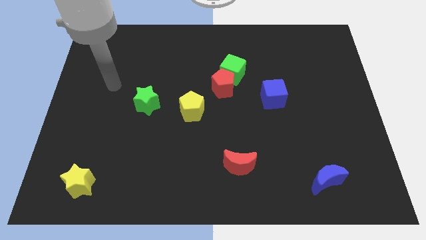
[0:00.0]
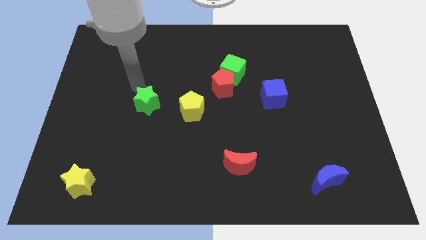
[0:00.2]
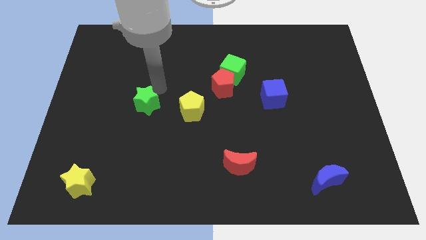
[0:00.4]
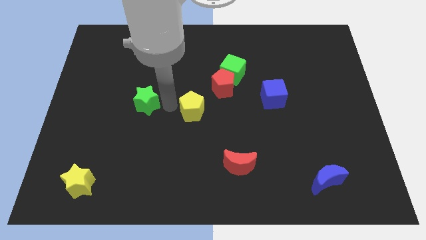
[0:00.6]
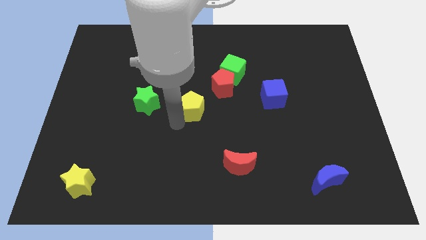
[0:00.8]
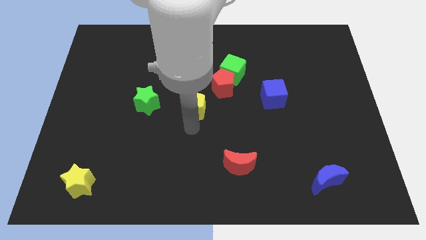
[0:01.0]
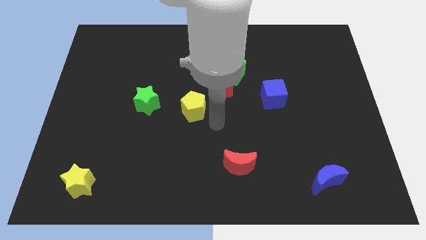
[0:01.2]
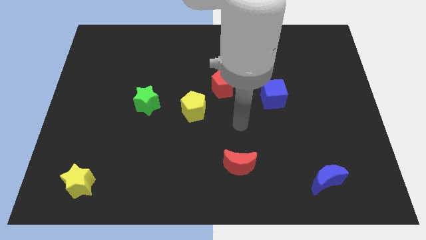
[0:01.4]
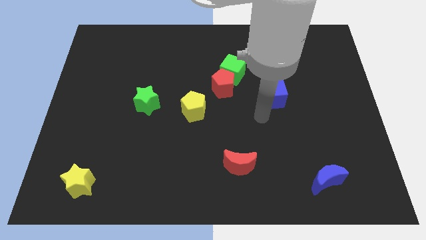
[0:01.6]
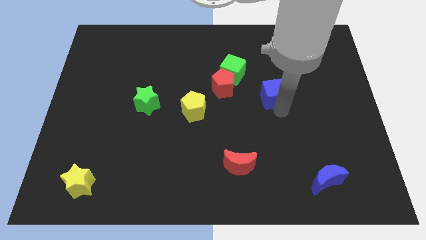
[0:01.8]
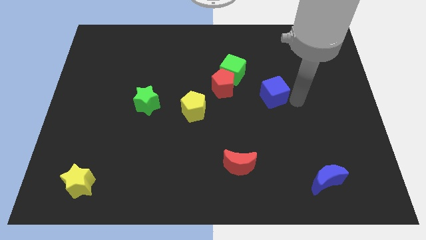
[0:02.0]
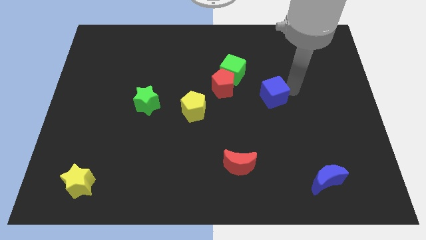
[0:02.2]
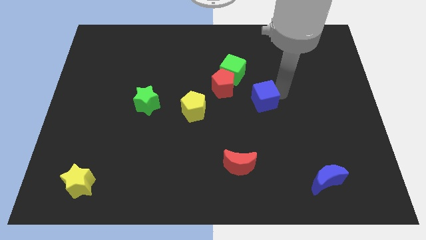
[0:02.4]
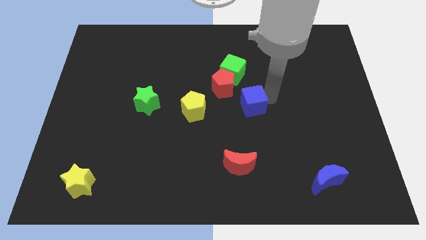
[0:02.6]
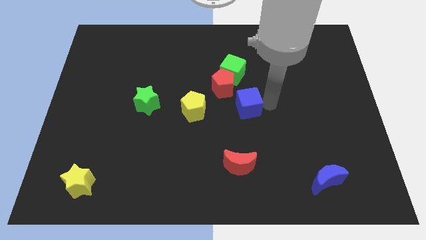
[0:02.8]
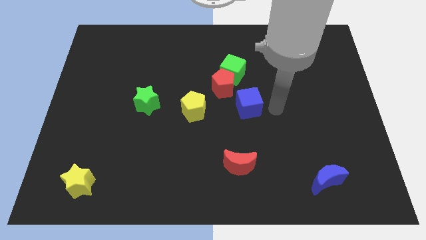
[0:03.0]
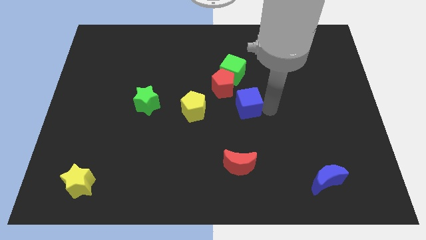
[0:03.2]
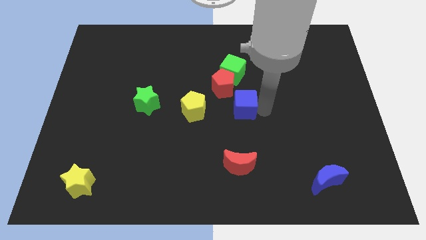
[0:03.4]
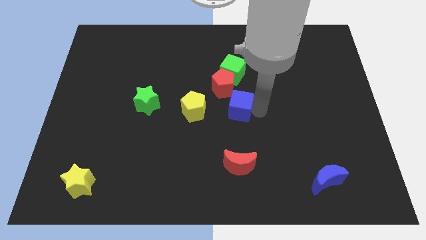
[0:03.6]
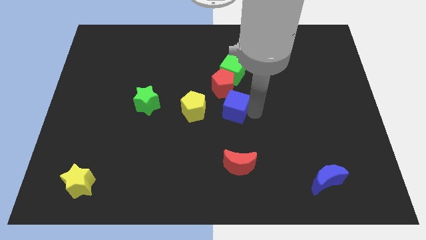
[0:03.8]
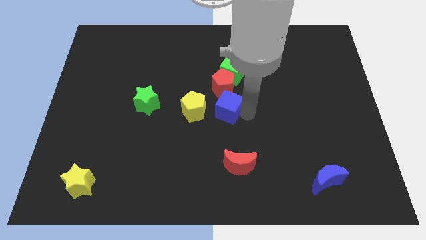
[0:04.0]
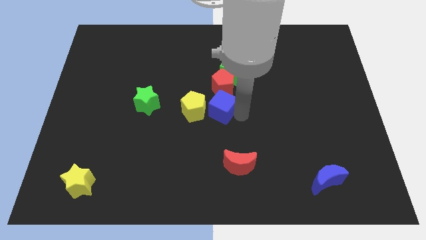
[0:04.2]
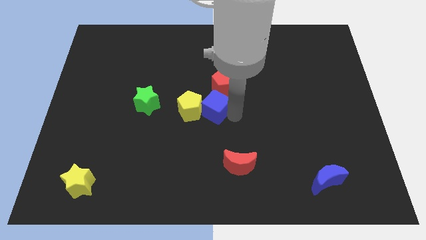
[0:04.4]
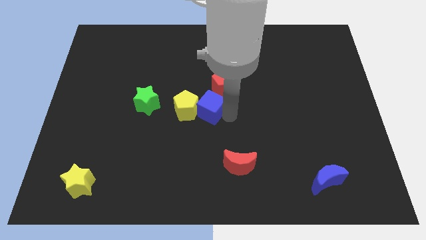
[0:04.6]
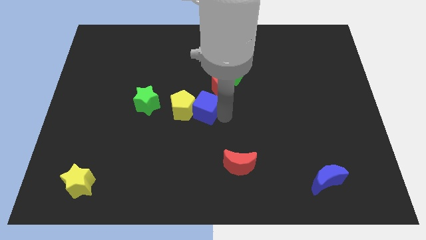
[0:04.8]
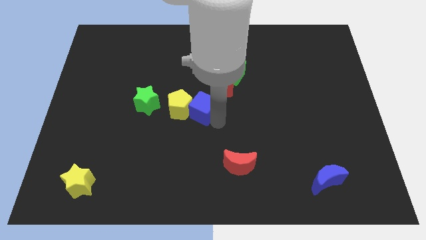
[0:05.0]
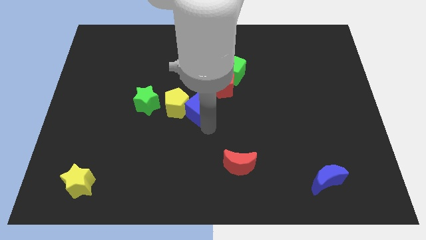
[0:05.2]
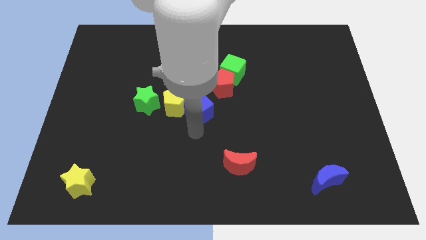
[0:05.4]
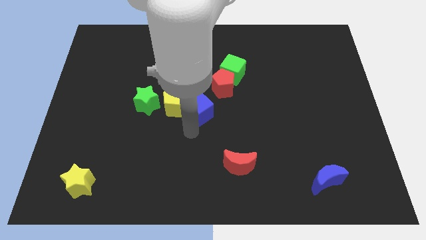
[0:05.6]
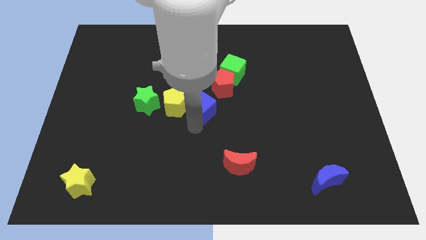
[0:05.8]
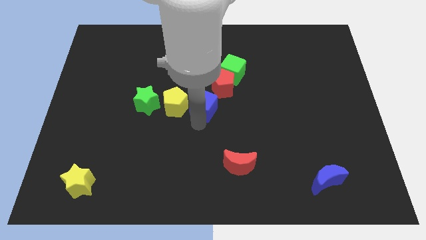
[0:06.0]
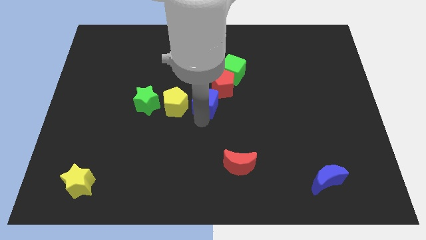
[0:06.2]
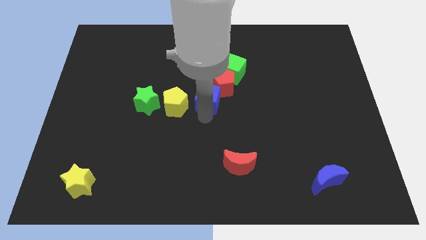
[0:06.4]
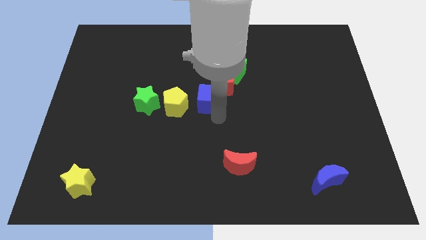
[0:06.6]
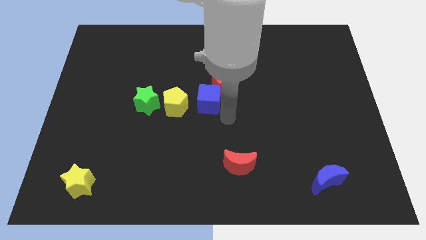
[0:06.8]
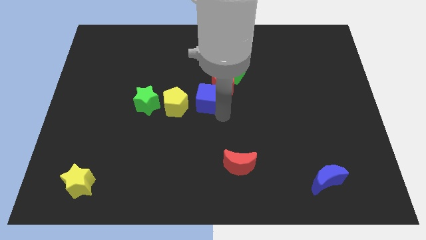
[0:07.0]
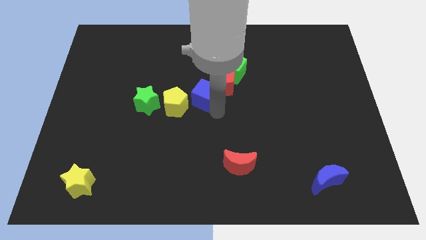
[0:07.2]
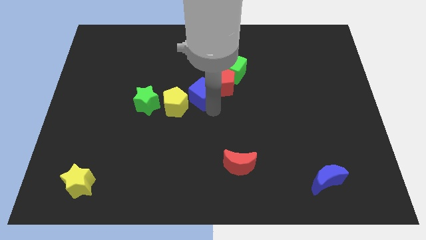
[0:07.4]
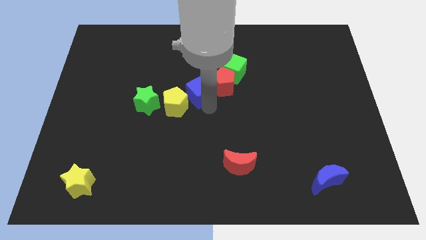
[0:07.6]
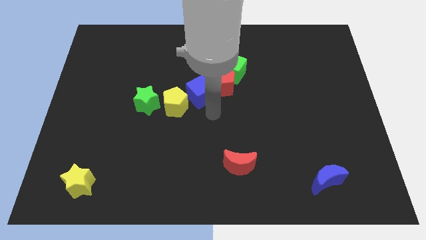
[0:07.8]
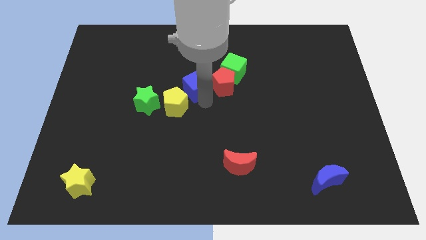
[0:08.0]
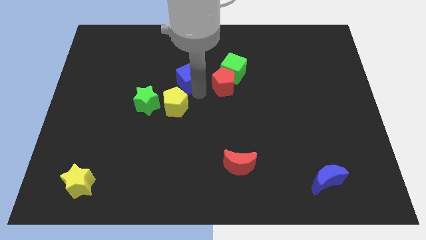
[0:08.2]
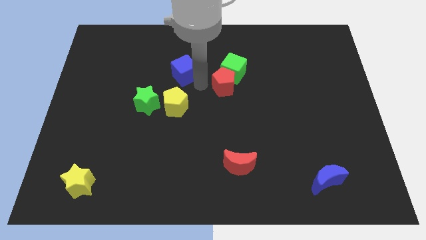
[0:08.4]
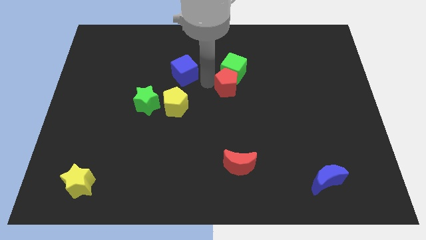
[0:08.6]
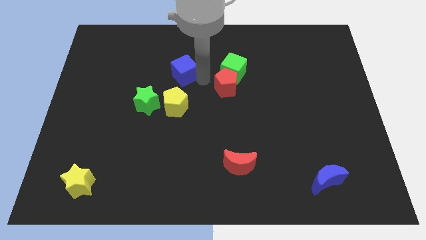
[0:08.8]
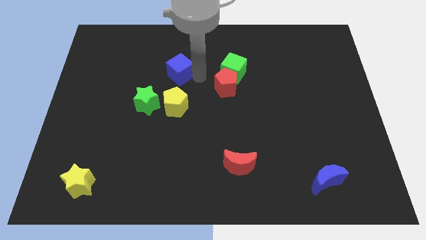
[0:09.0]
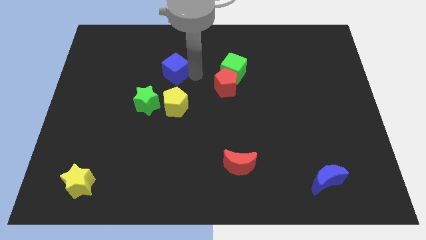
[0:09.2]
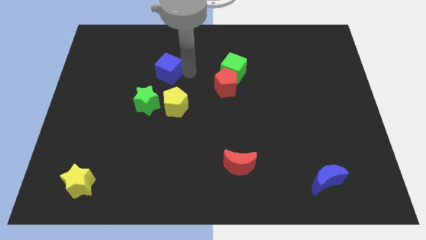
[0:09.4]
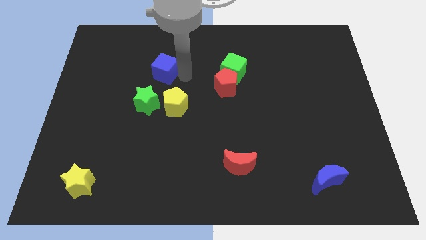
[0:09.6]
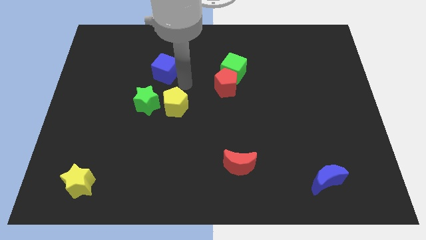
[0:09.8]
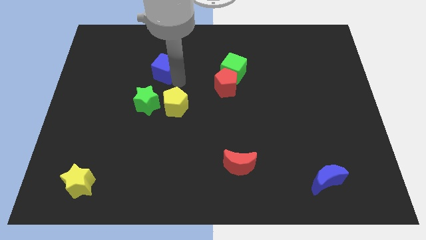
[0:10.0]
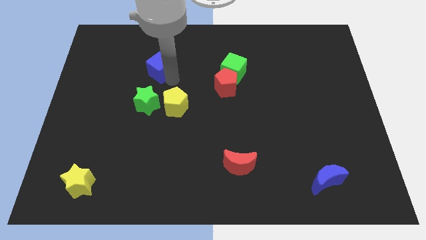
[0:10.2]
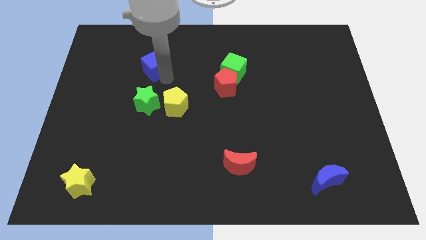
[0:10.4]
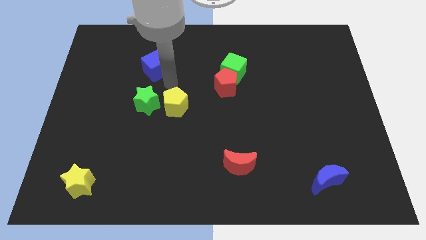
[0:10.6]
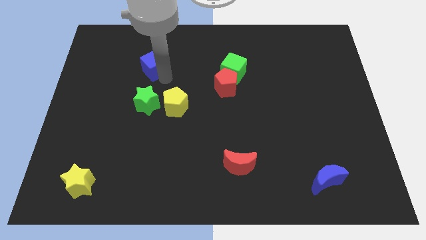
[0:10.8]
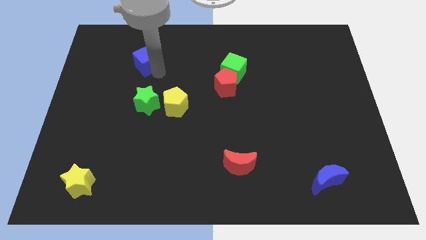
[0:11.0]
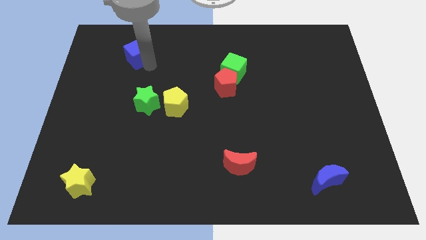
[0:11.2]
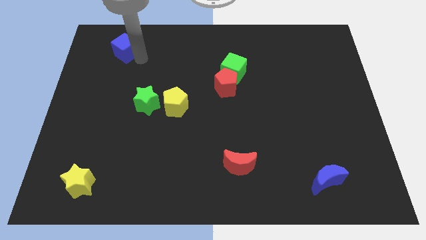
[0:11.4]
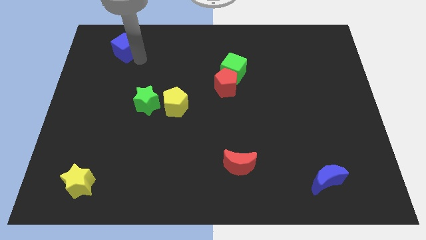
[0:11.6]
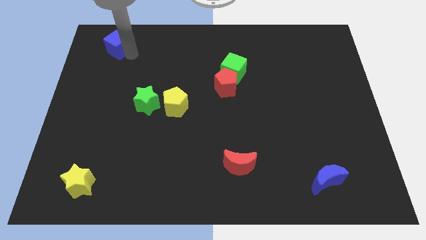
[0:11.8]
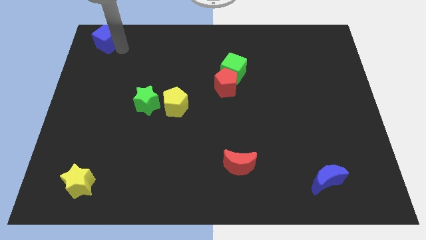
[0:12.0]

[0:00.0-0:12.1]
put the blue cube to the top left of the board
